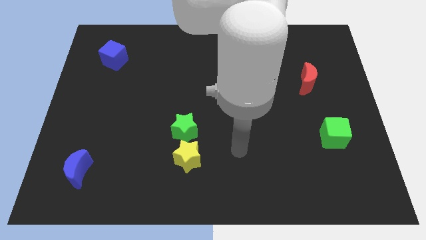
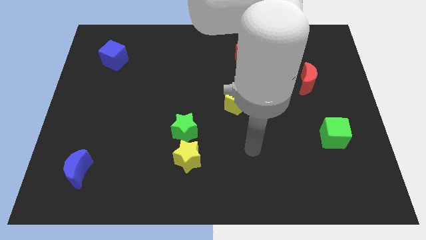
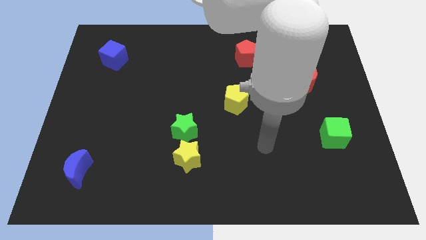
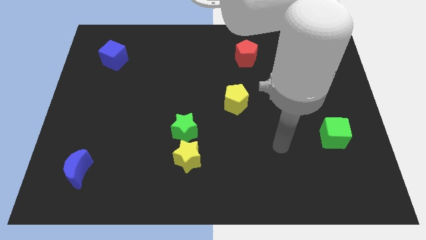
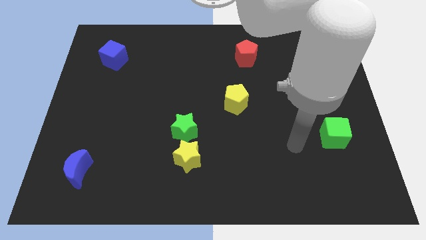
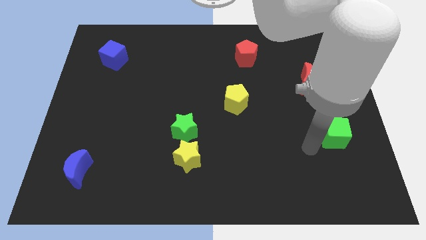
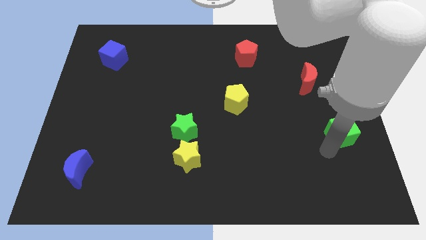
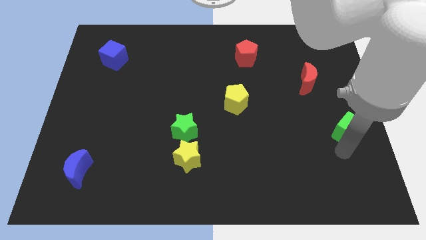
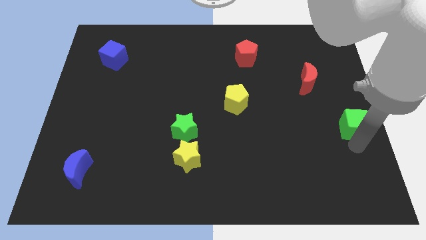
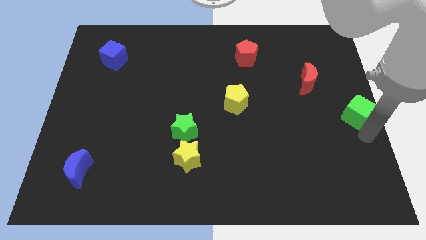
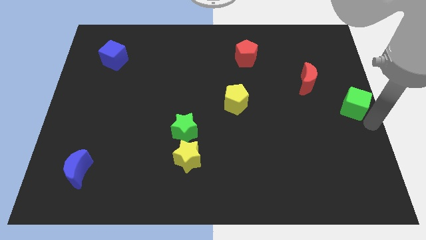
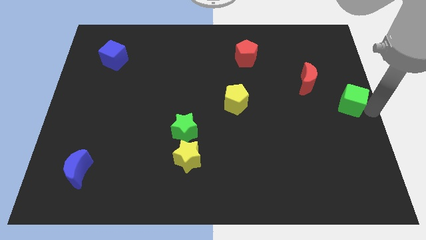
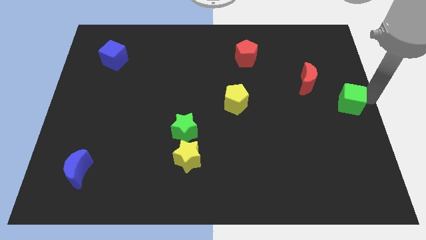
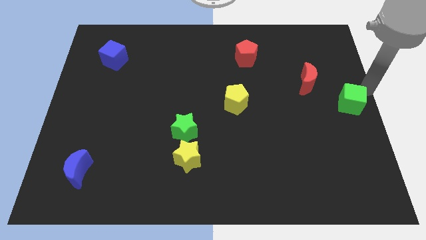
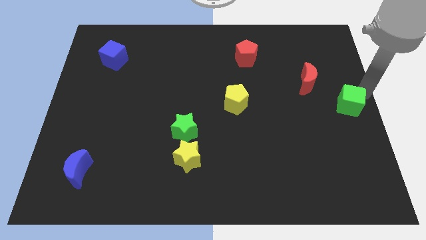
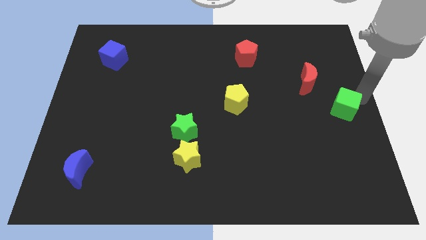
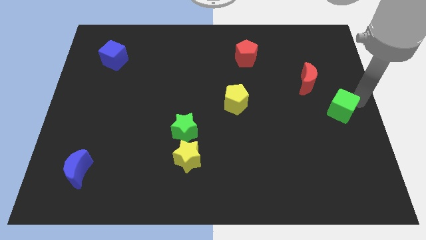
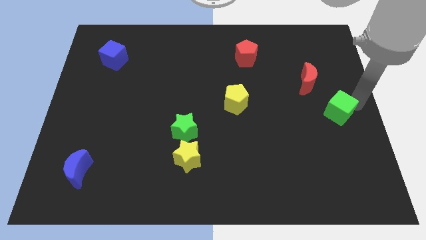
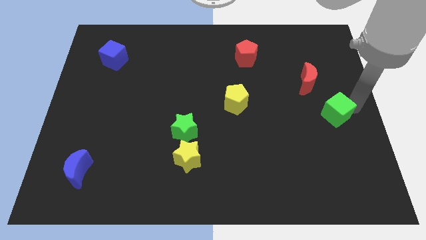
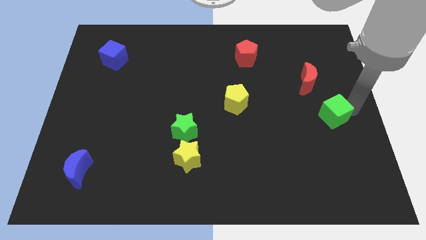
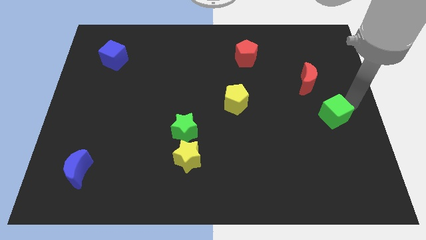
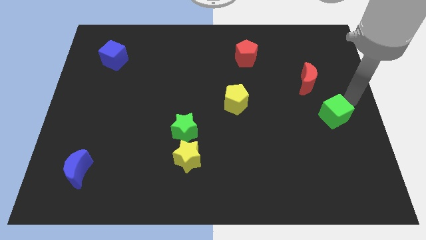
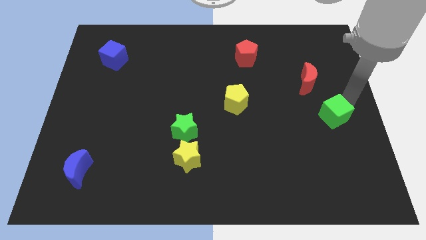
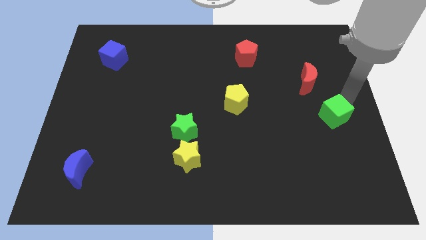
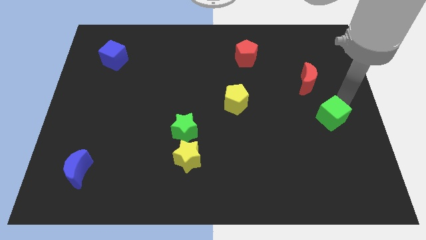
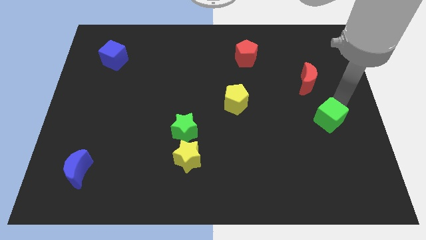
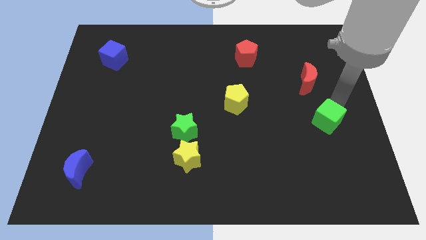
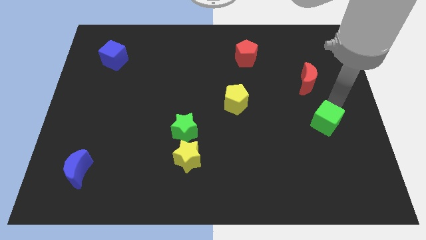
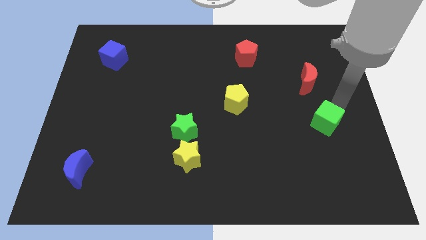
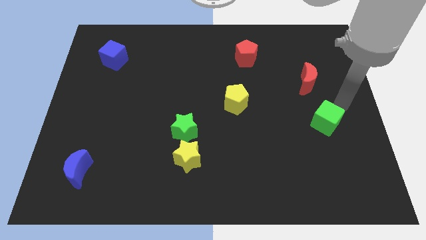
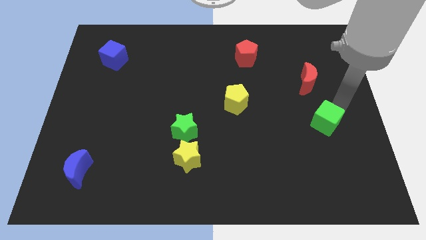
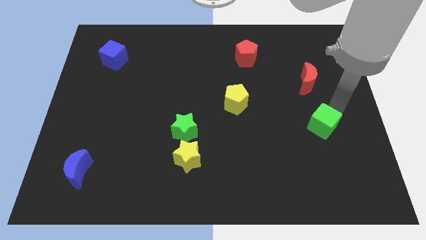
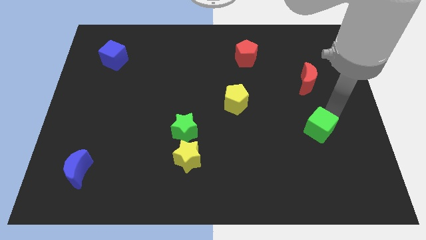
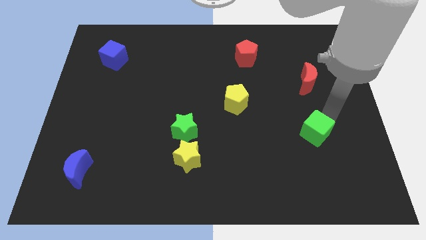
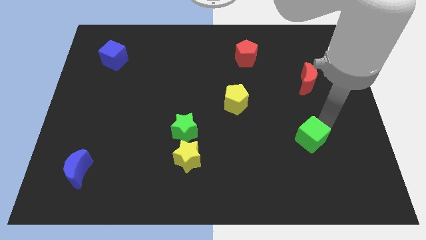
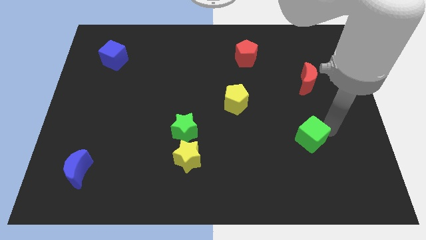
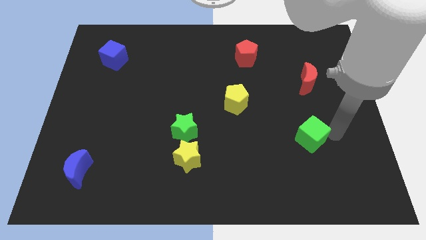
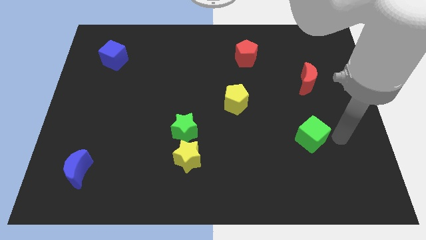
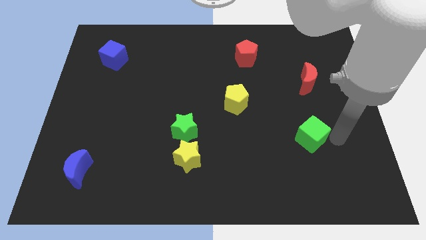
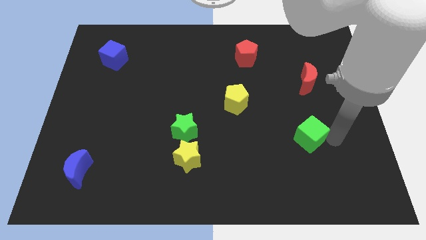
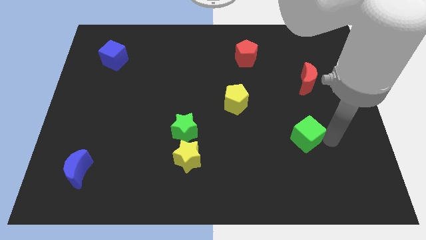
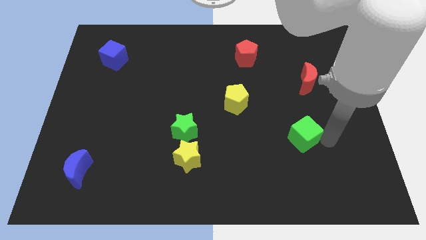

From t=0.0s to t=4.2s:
slightly slide the green cube left

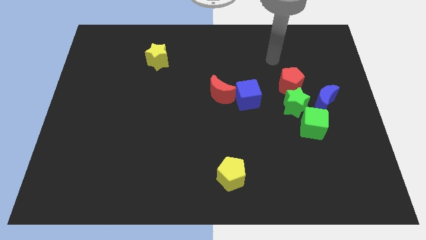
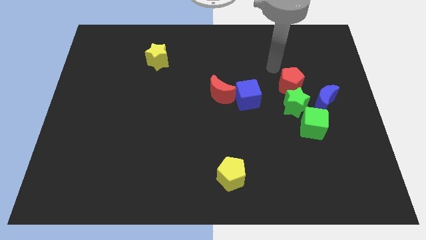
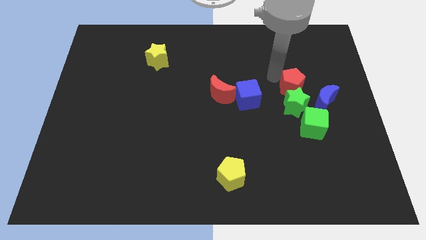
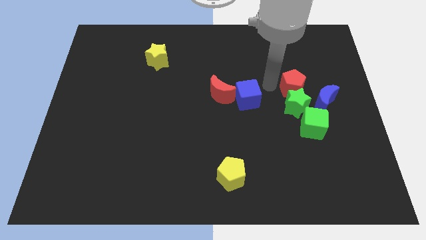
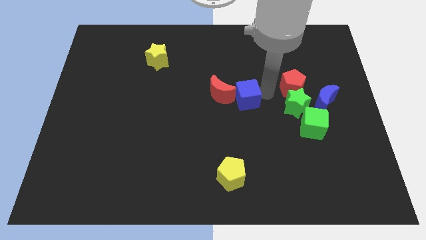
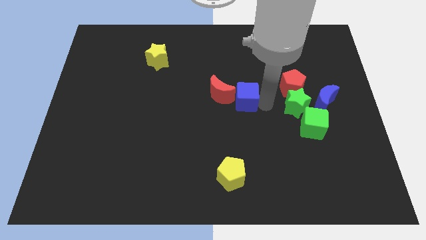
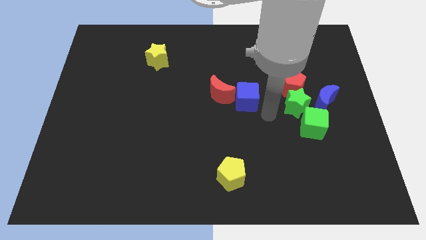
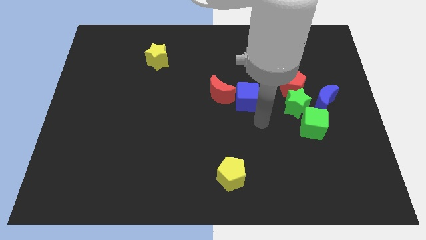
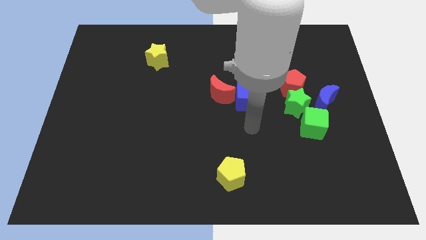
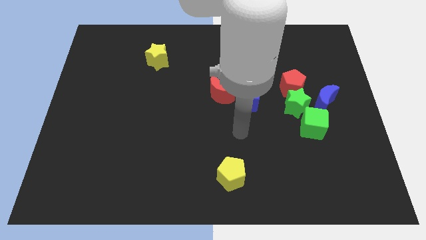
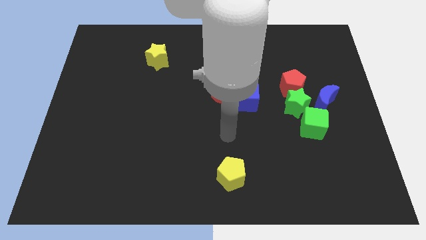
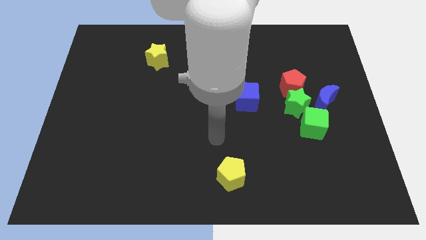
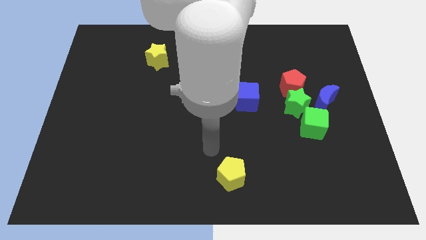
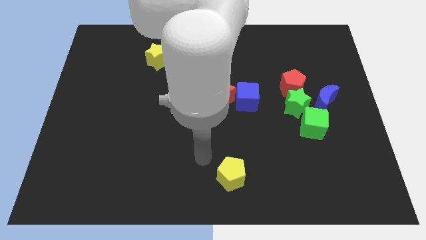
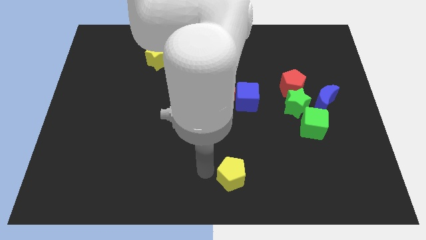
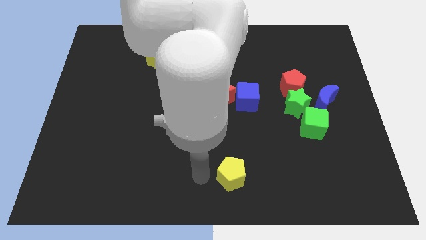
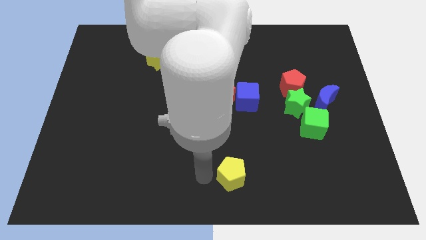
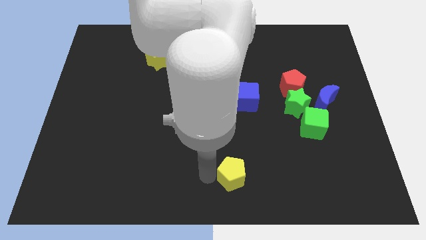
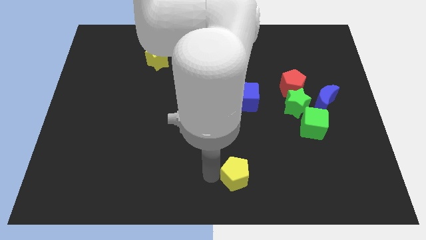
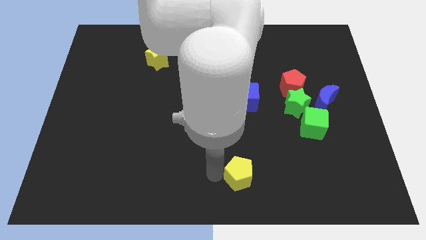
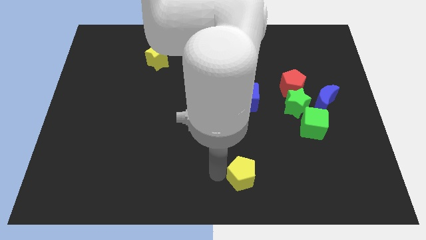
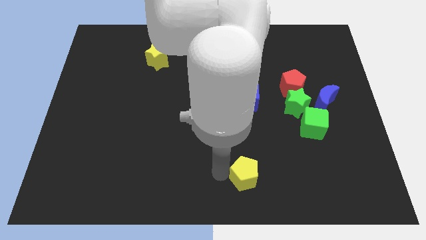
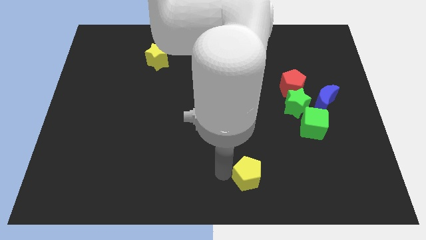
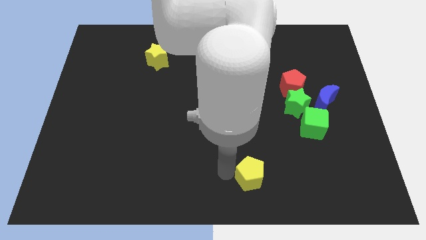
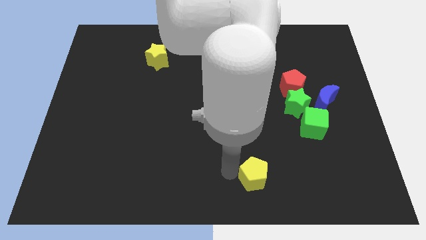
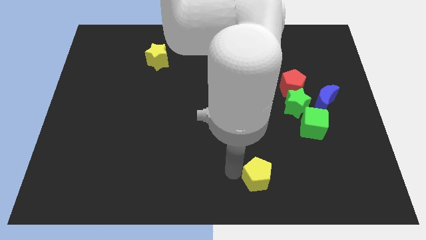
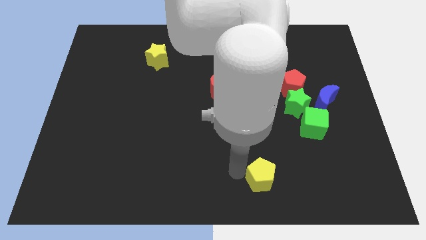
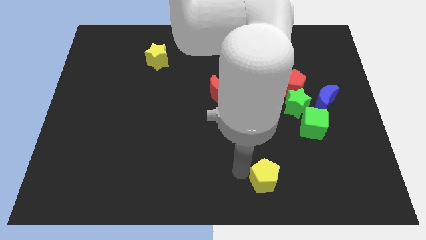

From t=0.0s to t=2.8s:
slide the yellow pentagon a little bit to the right

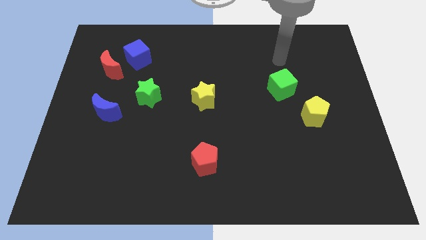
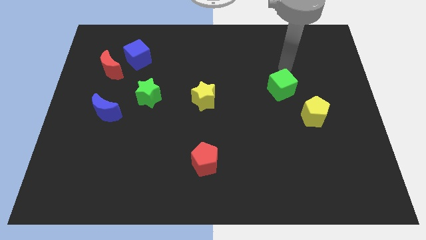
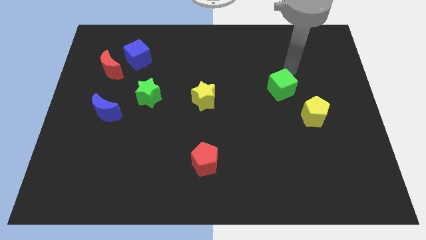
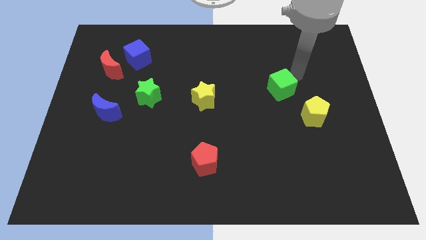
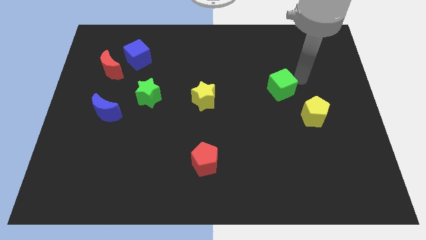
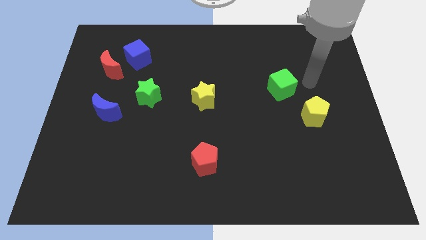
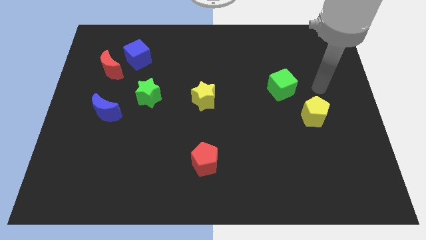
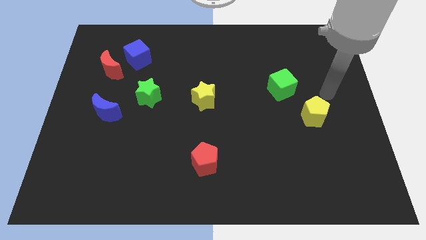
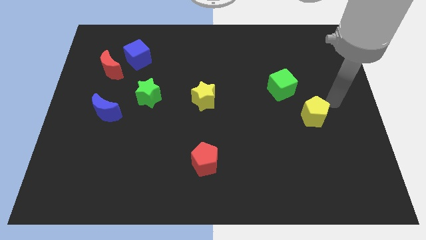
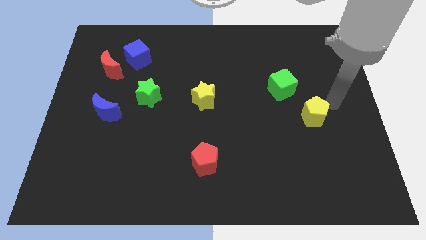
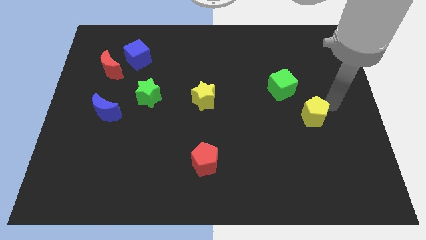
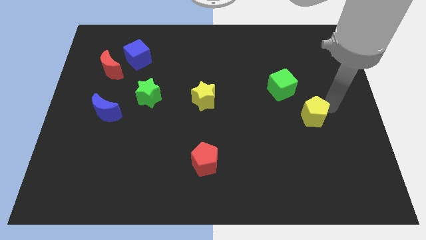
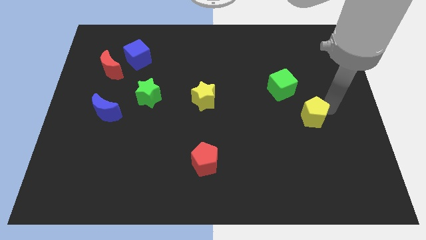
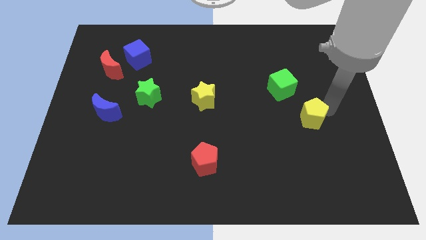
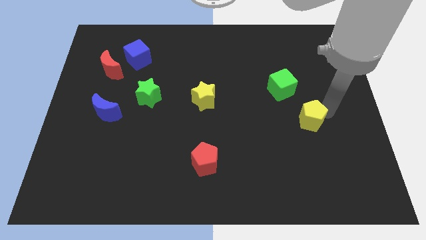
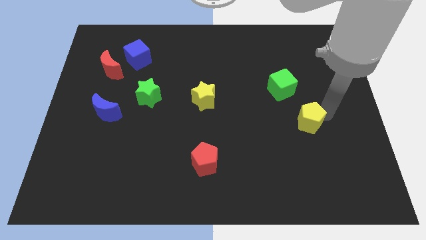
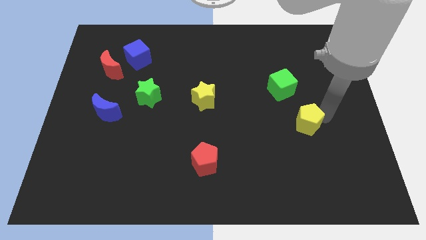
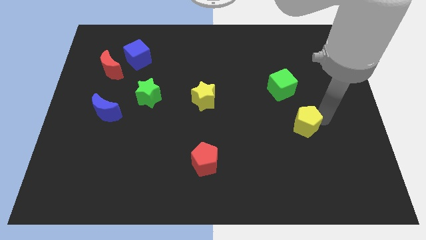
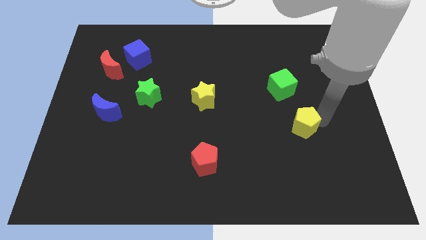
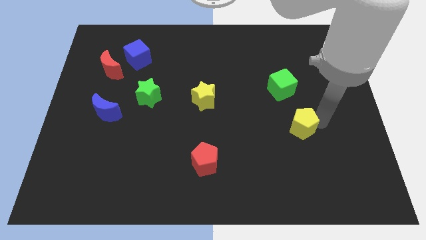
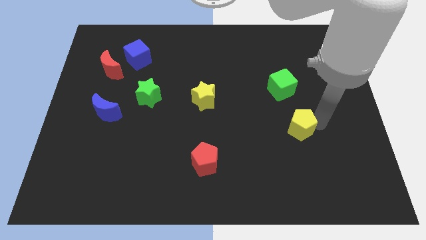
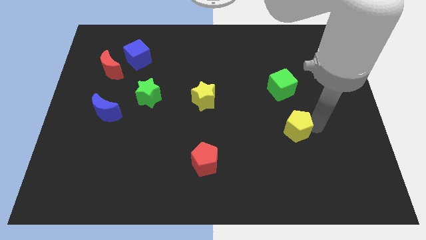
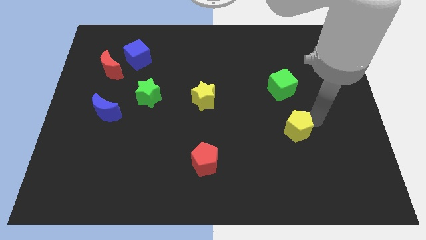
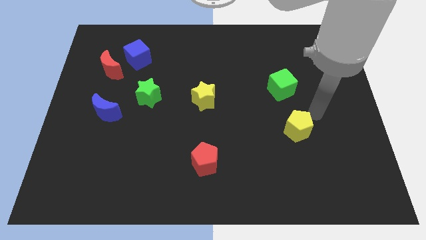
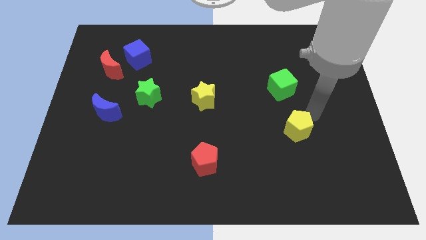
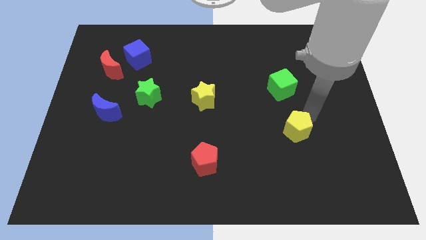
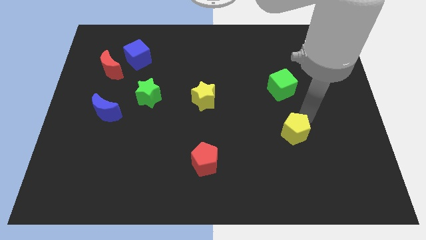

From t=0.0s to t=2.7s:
slightly push the yellow pentagon diagonally downwards and to the left
